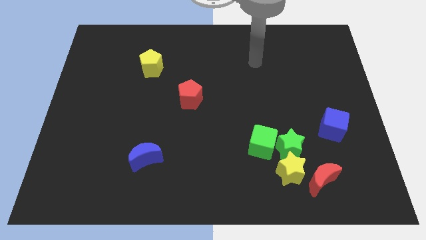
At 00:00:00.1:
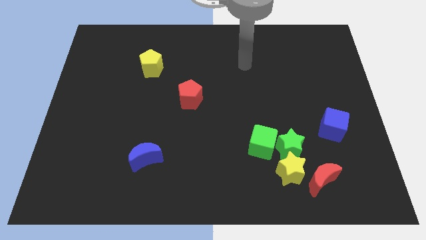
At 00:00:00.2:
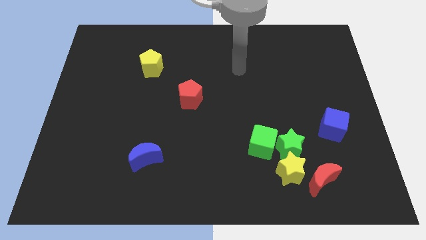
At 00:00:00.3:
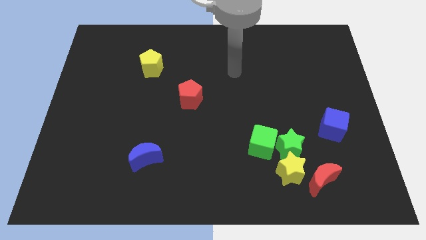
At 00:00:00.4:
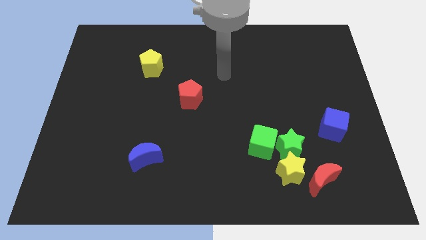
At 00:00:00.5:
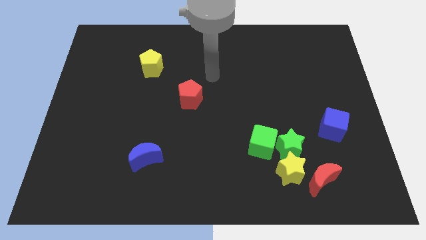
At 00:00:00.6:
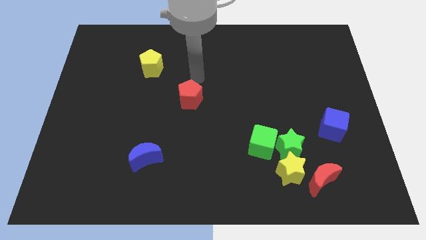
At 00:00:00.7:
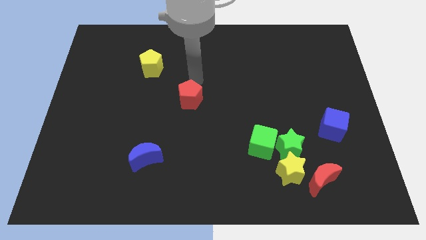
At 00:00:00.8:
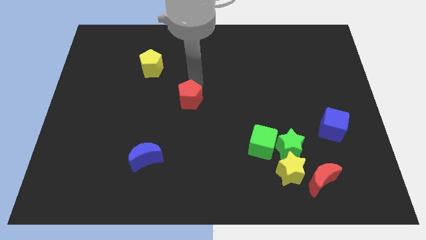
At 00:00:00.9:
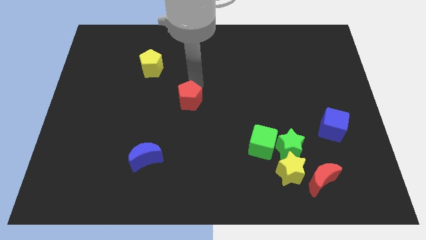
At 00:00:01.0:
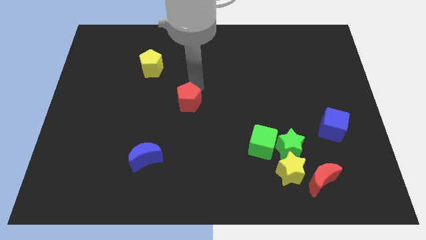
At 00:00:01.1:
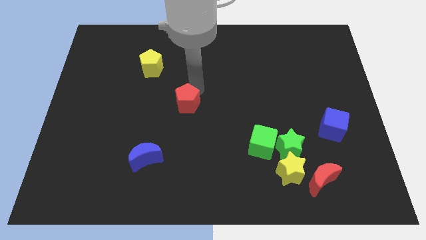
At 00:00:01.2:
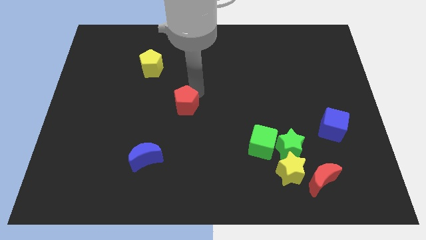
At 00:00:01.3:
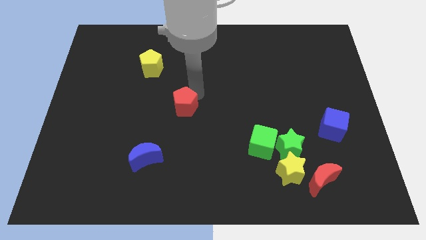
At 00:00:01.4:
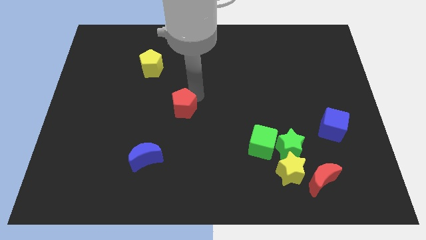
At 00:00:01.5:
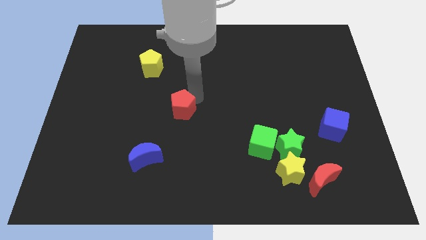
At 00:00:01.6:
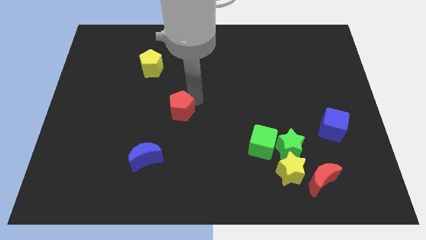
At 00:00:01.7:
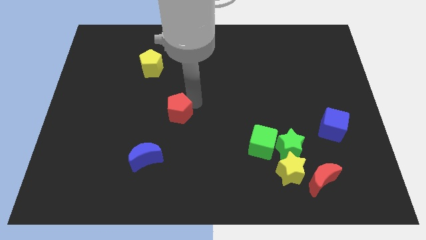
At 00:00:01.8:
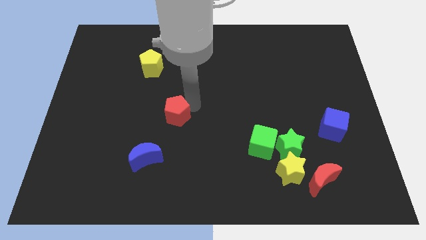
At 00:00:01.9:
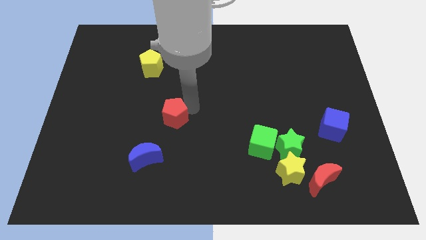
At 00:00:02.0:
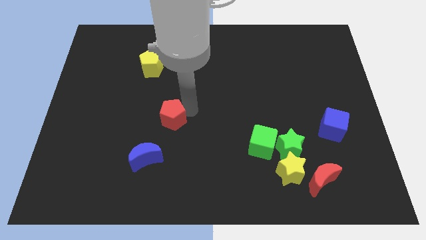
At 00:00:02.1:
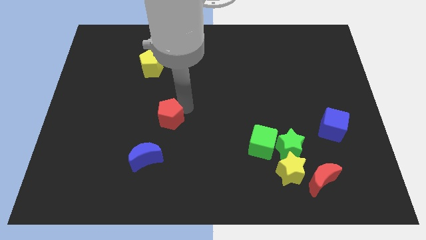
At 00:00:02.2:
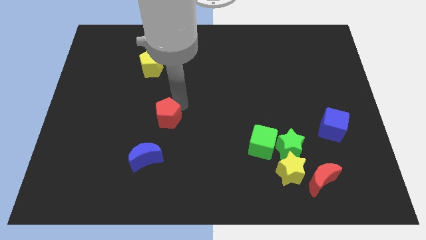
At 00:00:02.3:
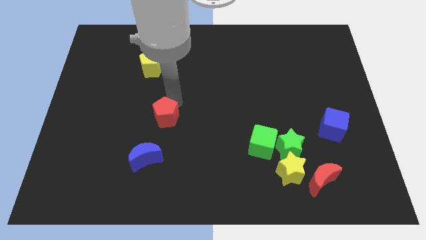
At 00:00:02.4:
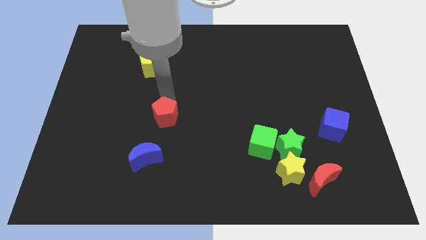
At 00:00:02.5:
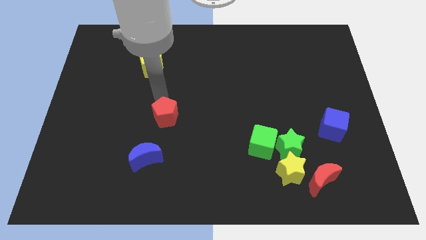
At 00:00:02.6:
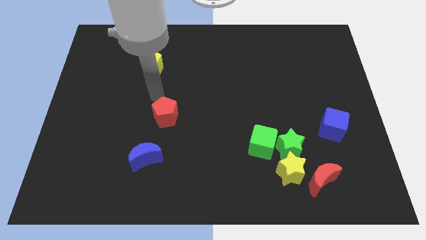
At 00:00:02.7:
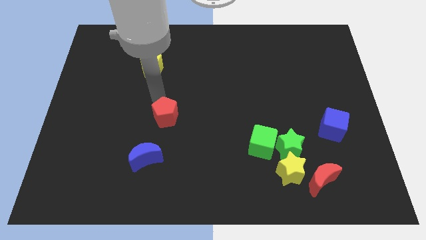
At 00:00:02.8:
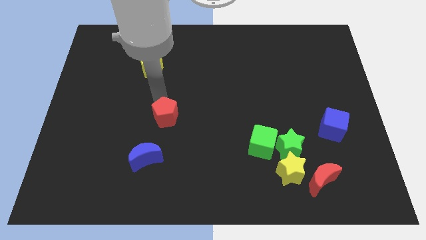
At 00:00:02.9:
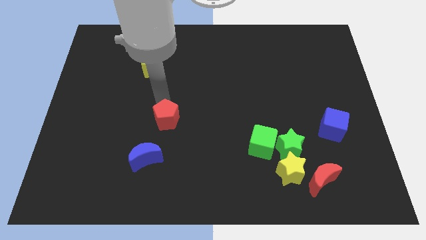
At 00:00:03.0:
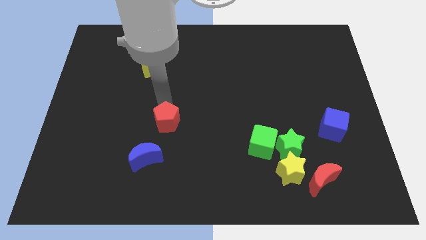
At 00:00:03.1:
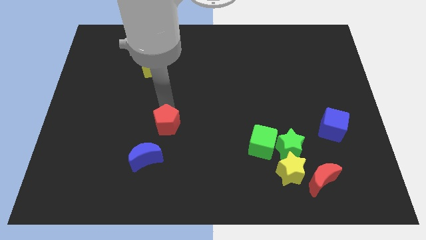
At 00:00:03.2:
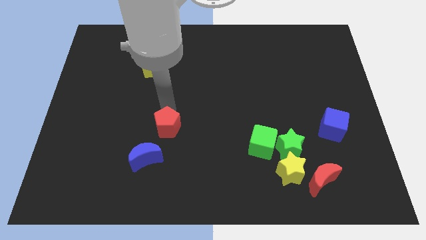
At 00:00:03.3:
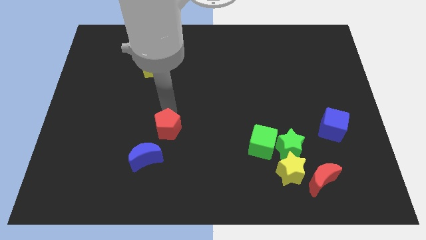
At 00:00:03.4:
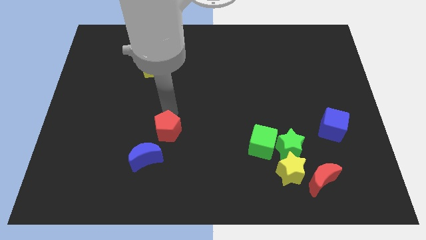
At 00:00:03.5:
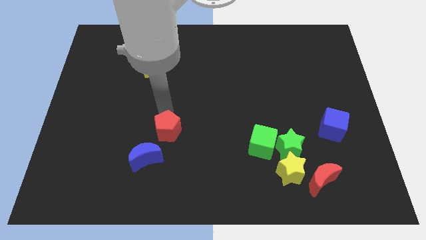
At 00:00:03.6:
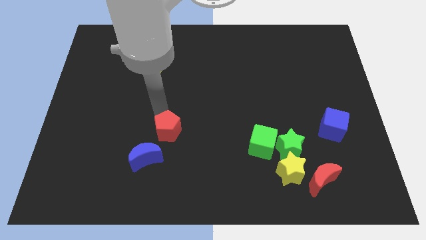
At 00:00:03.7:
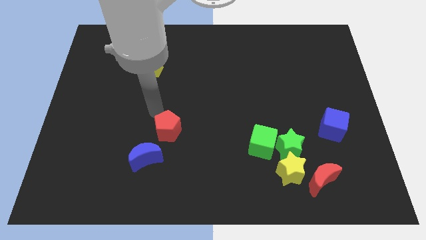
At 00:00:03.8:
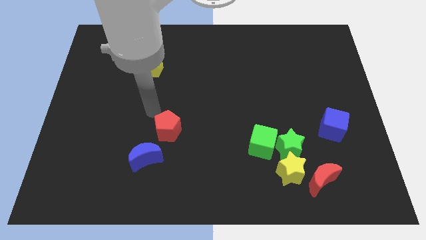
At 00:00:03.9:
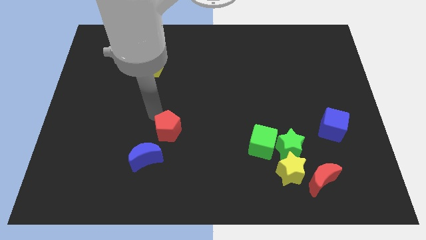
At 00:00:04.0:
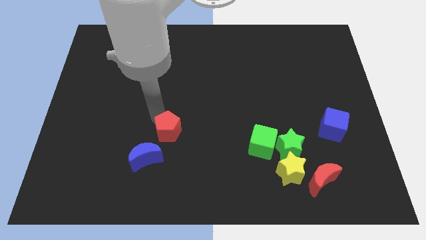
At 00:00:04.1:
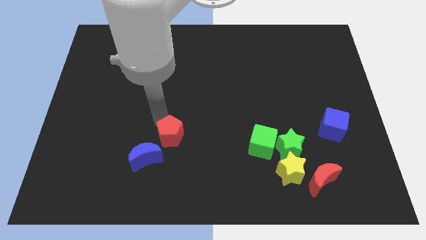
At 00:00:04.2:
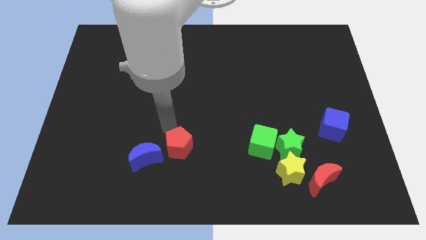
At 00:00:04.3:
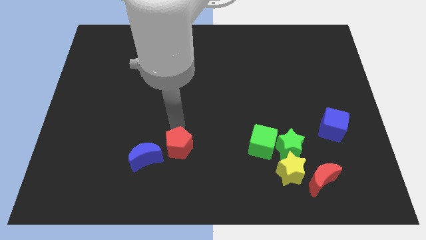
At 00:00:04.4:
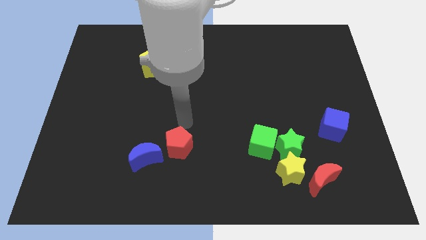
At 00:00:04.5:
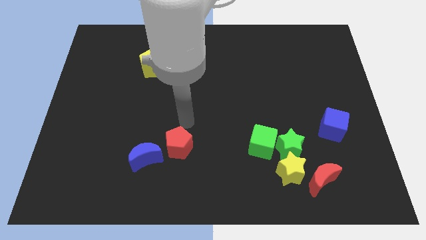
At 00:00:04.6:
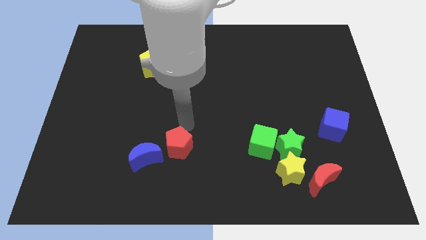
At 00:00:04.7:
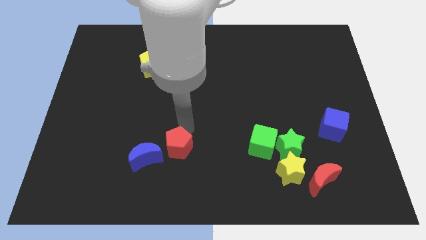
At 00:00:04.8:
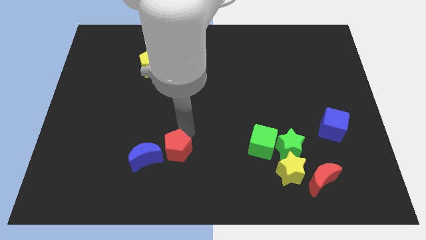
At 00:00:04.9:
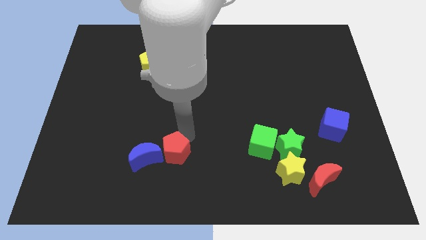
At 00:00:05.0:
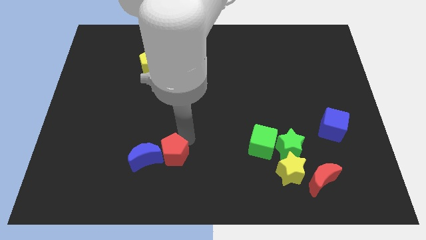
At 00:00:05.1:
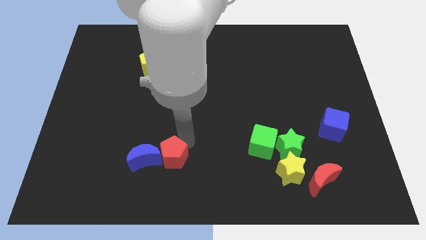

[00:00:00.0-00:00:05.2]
move the red pentagon to the bottom right of the blue moon

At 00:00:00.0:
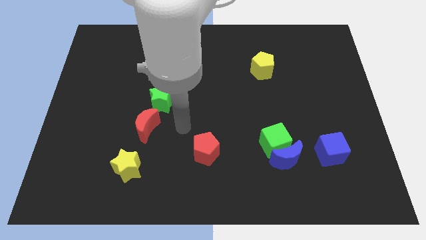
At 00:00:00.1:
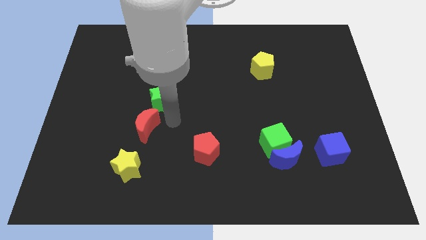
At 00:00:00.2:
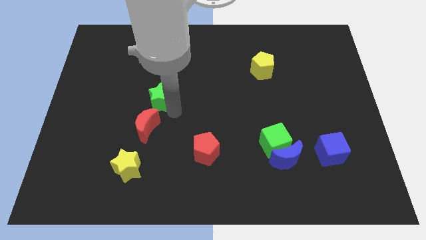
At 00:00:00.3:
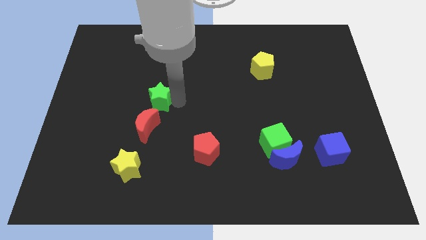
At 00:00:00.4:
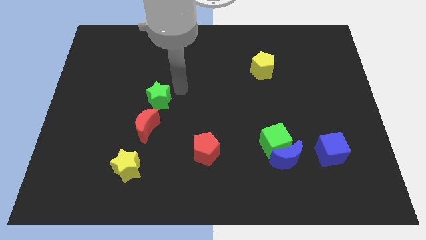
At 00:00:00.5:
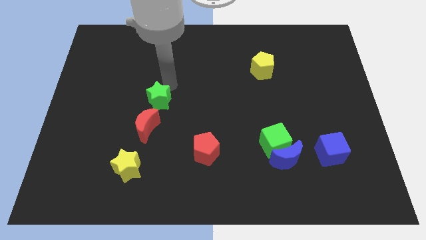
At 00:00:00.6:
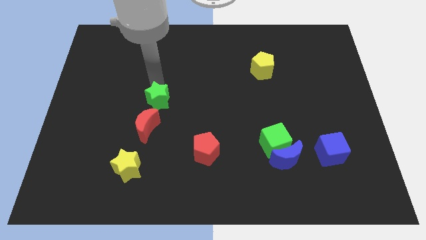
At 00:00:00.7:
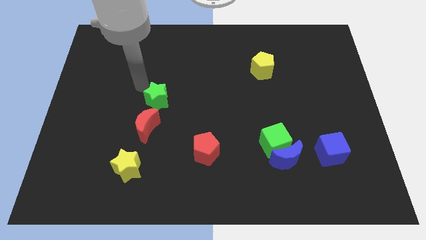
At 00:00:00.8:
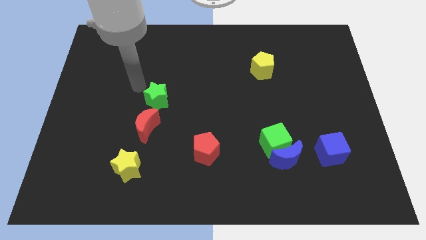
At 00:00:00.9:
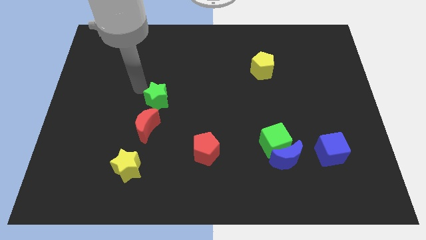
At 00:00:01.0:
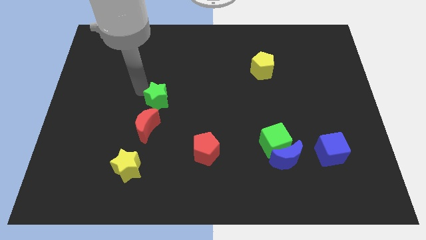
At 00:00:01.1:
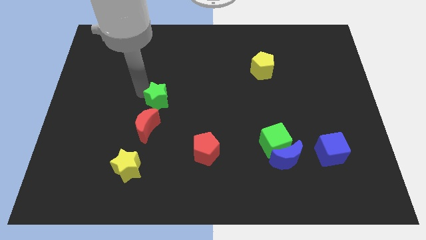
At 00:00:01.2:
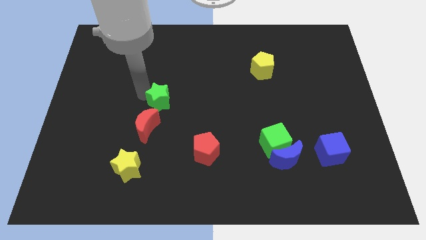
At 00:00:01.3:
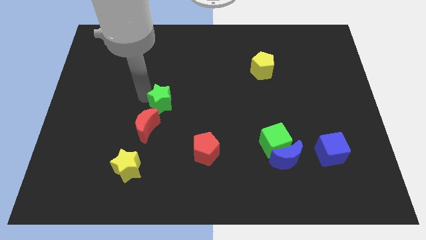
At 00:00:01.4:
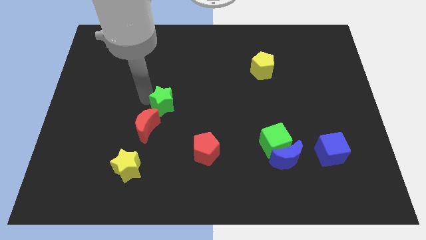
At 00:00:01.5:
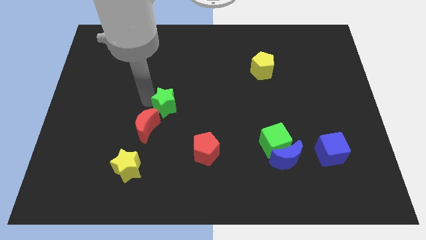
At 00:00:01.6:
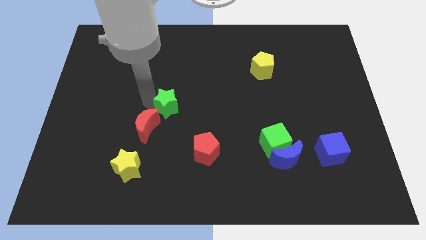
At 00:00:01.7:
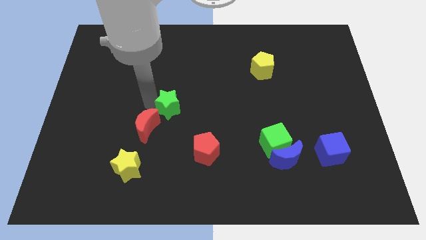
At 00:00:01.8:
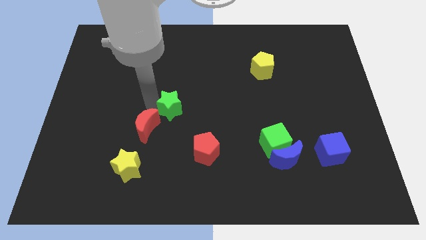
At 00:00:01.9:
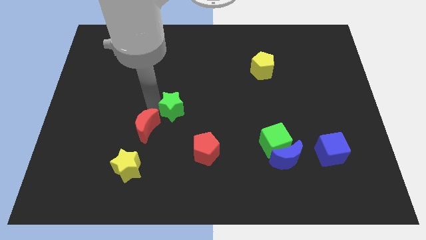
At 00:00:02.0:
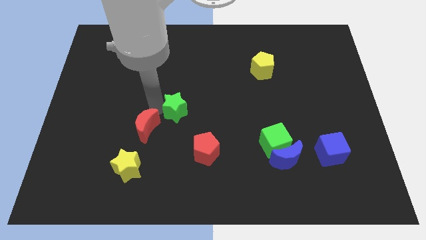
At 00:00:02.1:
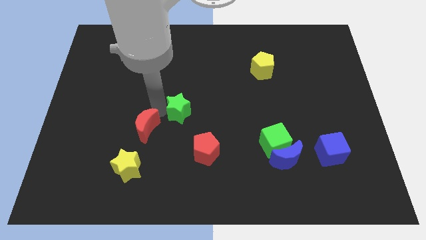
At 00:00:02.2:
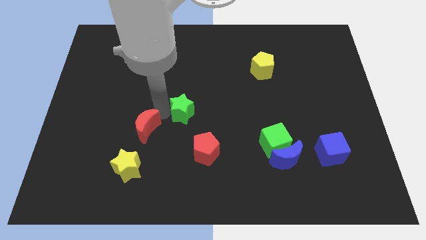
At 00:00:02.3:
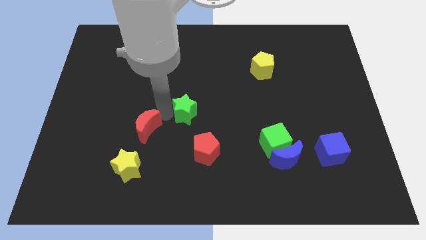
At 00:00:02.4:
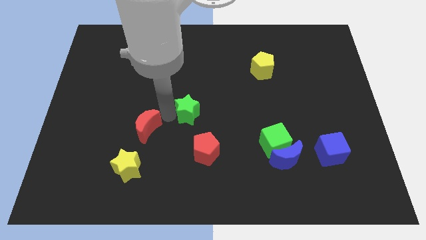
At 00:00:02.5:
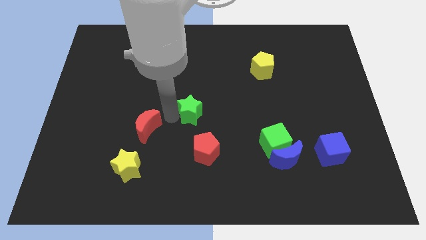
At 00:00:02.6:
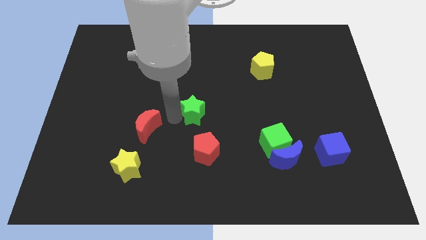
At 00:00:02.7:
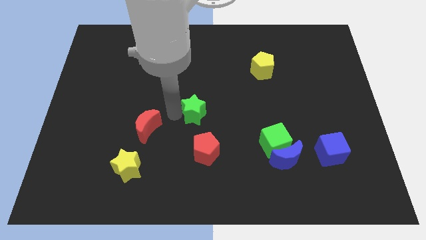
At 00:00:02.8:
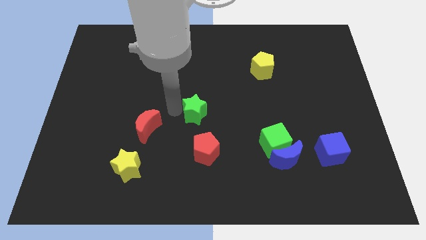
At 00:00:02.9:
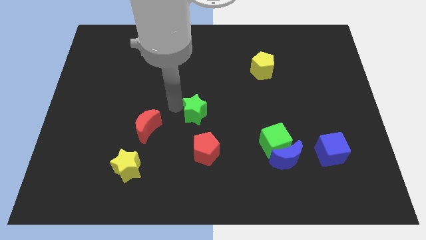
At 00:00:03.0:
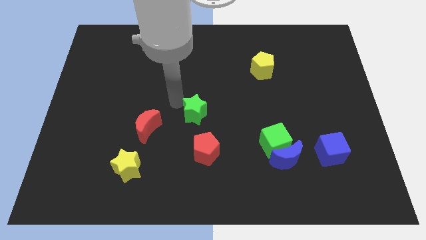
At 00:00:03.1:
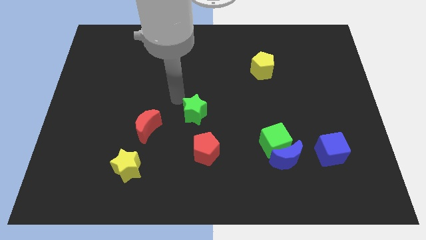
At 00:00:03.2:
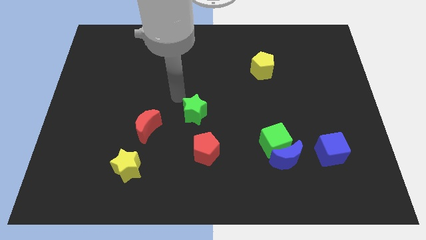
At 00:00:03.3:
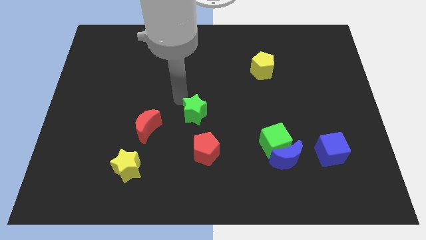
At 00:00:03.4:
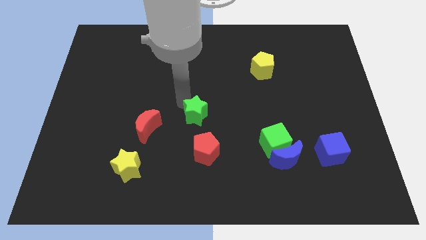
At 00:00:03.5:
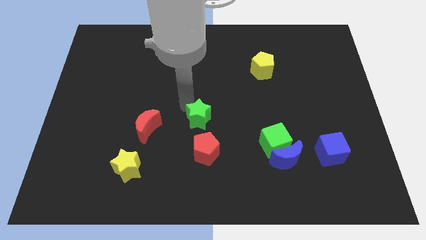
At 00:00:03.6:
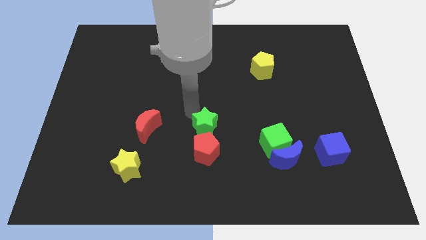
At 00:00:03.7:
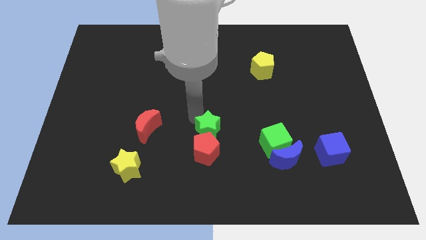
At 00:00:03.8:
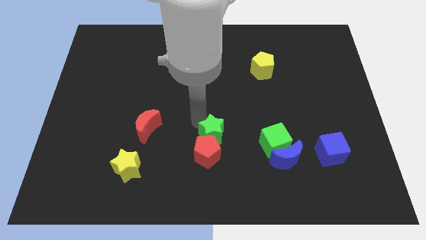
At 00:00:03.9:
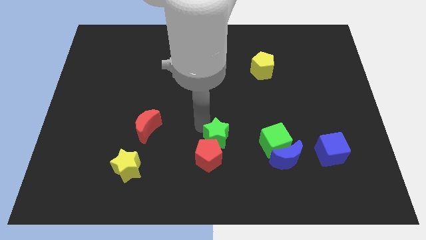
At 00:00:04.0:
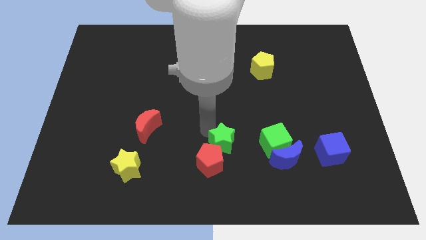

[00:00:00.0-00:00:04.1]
push the green star left of the blue moon
